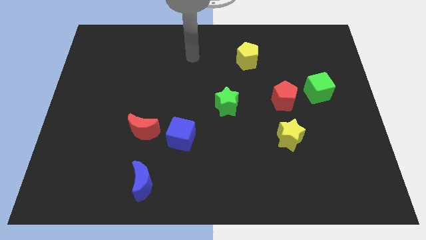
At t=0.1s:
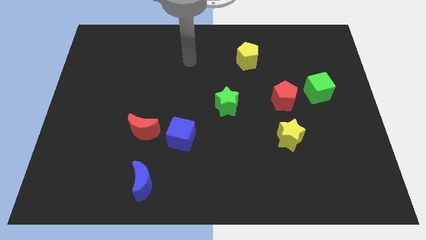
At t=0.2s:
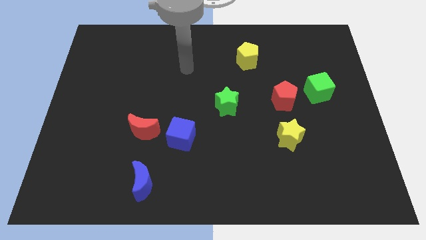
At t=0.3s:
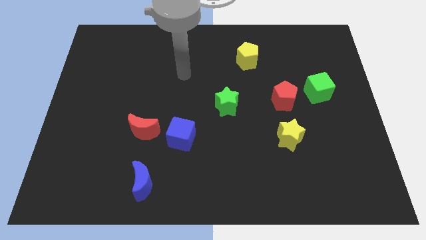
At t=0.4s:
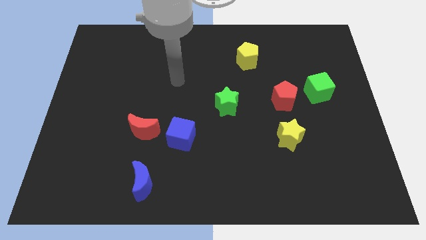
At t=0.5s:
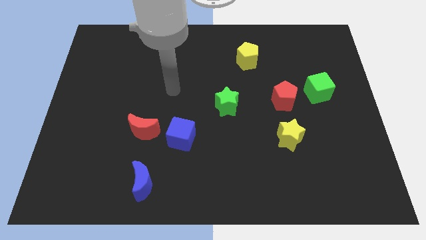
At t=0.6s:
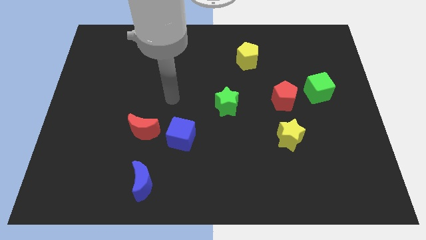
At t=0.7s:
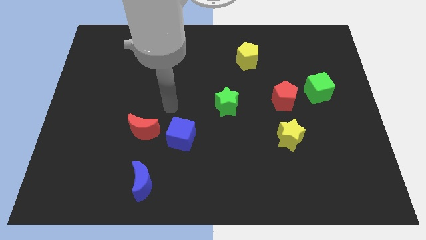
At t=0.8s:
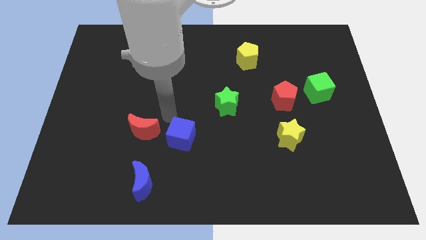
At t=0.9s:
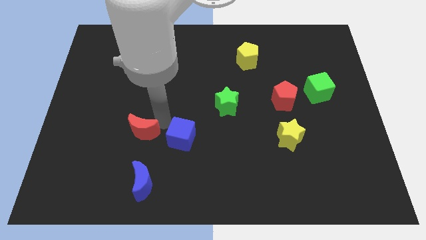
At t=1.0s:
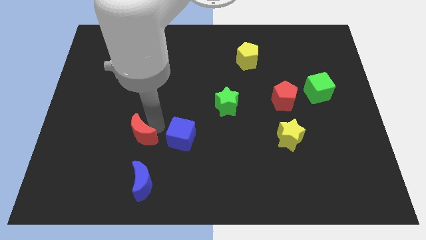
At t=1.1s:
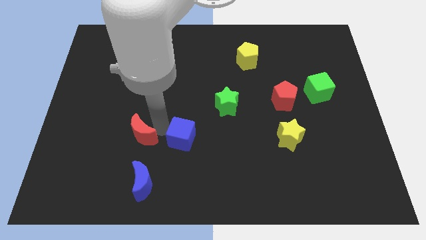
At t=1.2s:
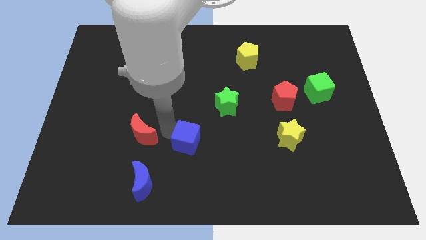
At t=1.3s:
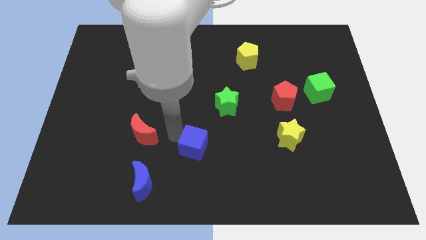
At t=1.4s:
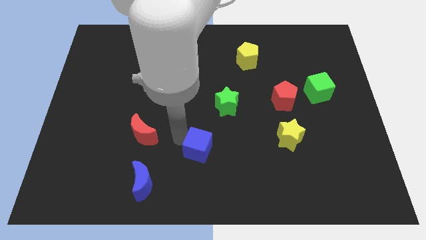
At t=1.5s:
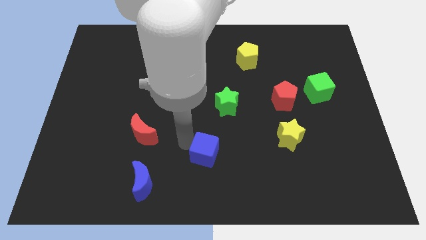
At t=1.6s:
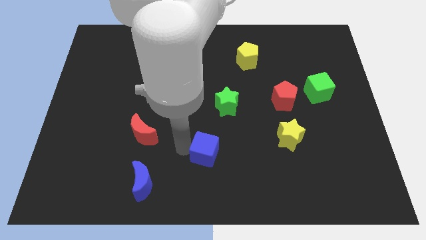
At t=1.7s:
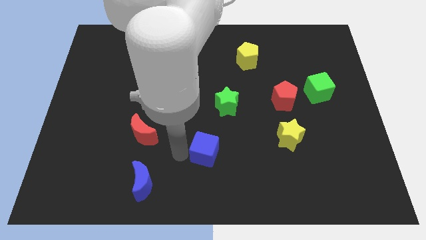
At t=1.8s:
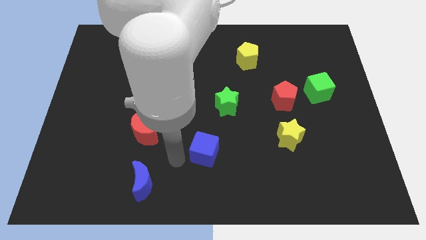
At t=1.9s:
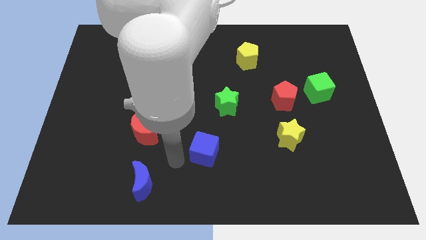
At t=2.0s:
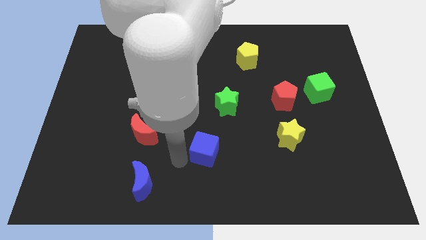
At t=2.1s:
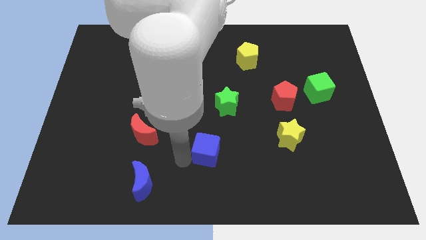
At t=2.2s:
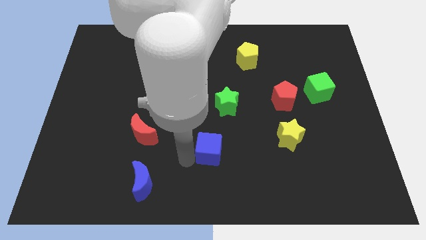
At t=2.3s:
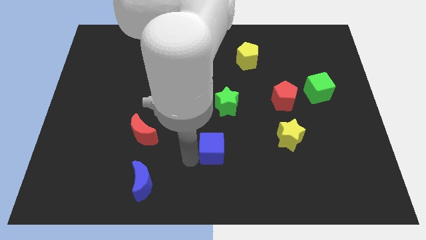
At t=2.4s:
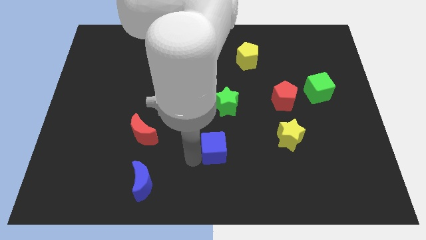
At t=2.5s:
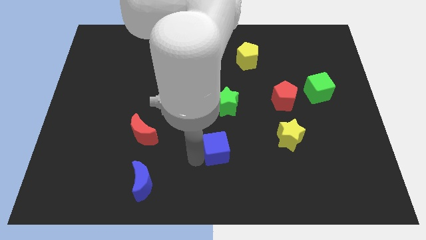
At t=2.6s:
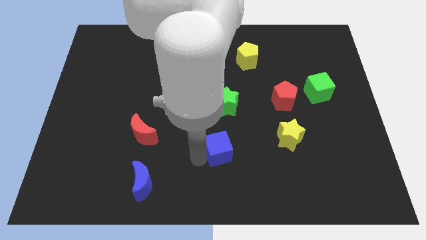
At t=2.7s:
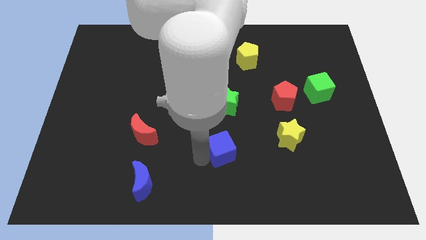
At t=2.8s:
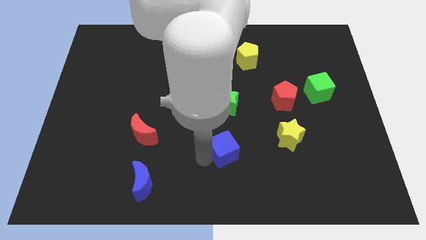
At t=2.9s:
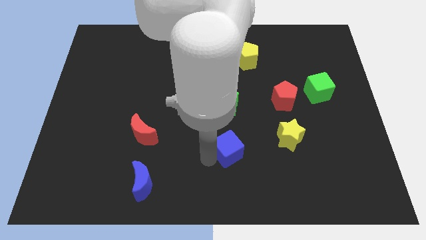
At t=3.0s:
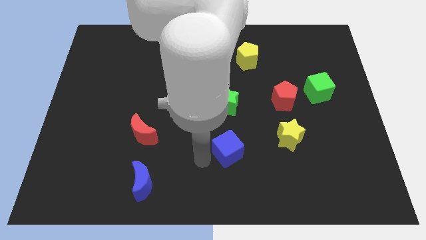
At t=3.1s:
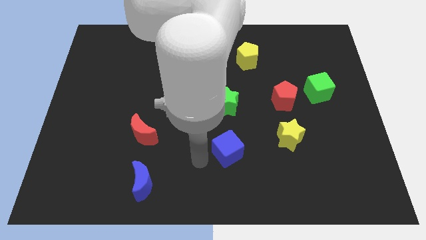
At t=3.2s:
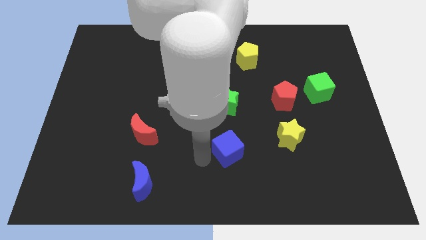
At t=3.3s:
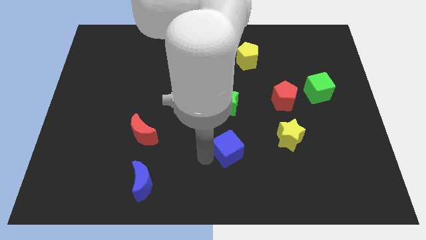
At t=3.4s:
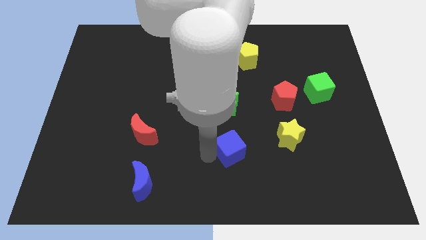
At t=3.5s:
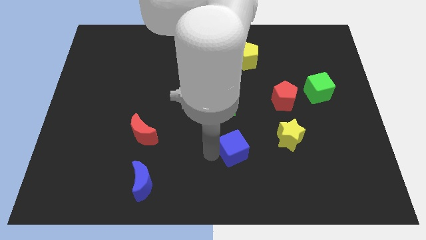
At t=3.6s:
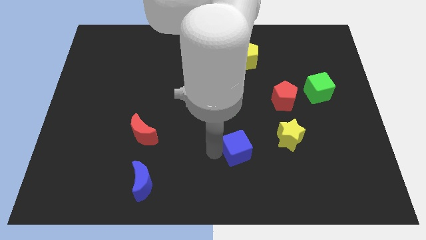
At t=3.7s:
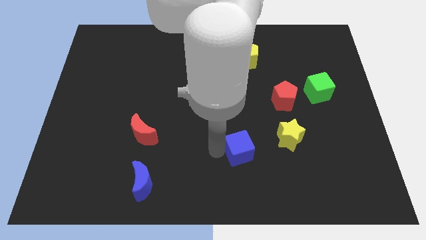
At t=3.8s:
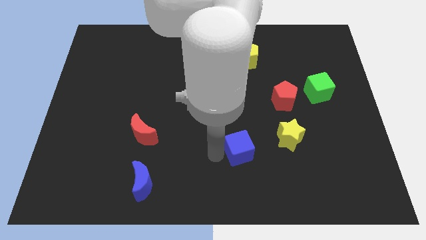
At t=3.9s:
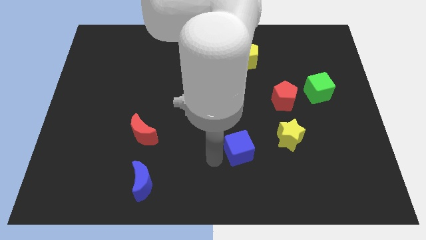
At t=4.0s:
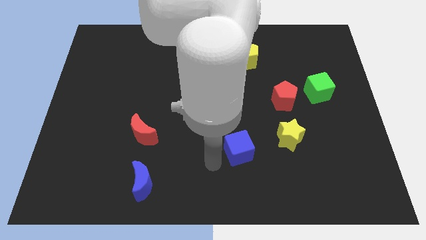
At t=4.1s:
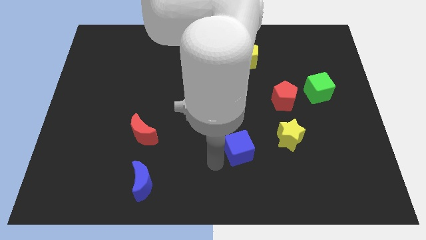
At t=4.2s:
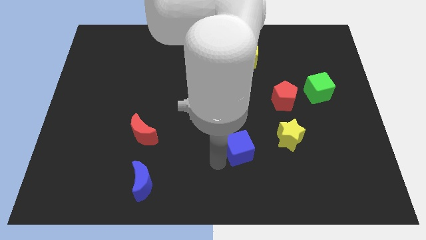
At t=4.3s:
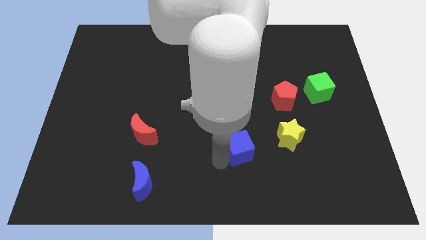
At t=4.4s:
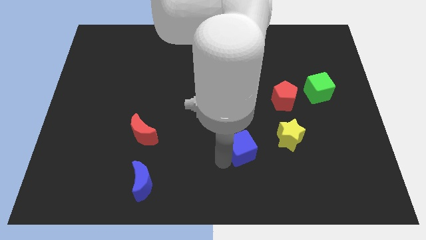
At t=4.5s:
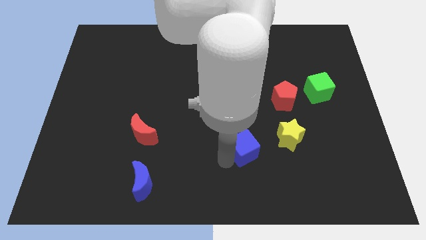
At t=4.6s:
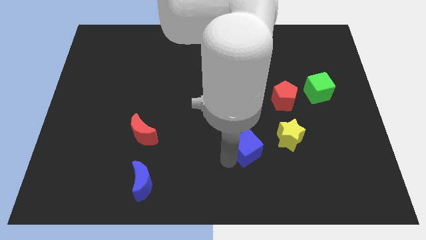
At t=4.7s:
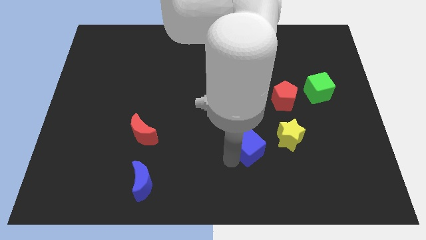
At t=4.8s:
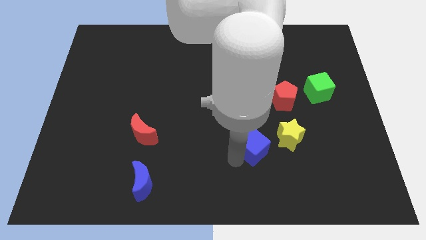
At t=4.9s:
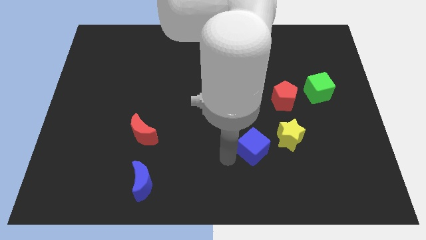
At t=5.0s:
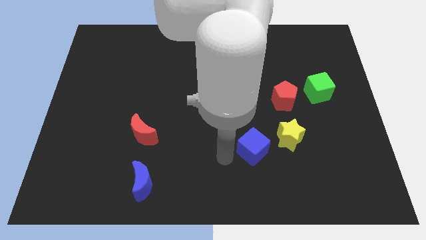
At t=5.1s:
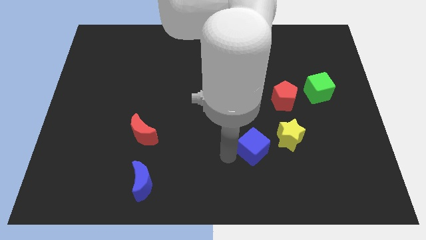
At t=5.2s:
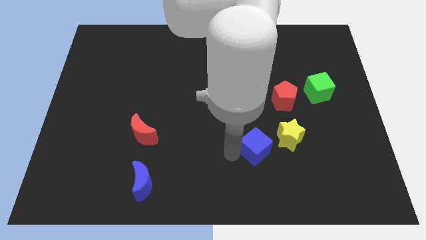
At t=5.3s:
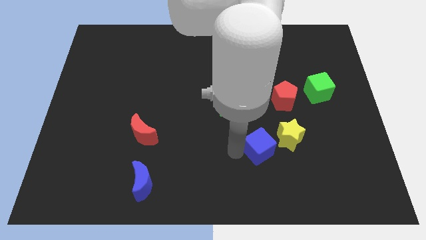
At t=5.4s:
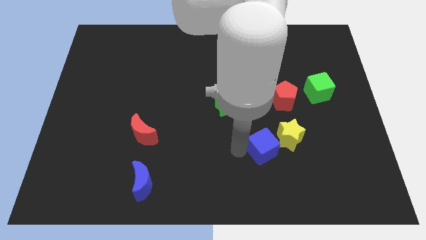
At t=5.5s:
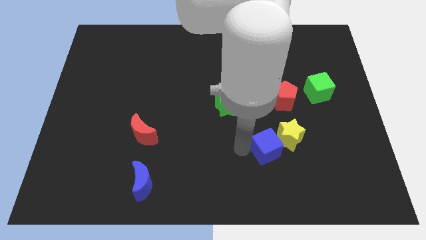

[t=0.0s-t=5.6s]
put the blue cube next to the yellow star

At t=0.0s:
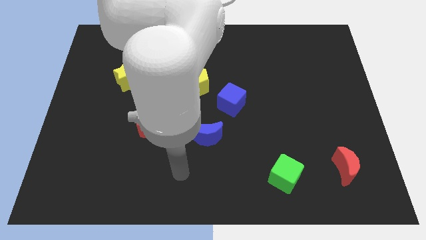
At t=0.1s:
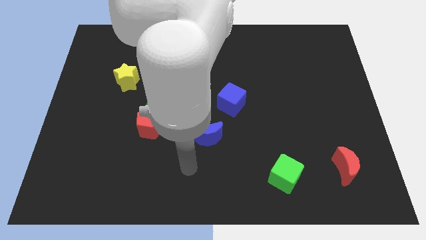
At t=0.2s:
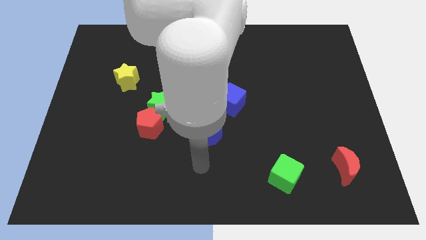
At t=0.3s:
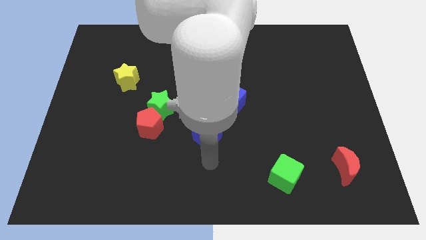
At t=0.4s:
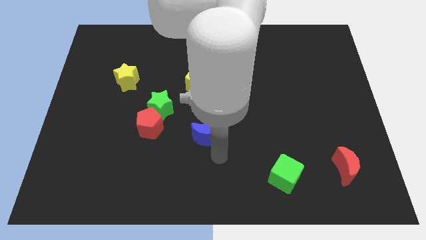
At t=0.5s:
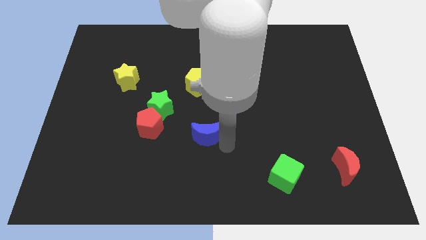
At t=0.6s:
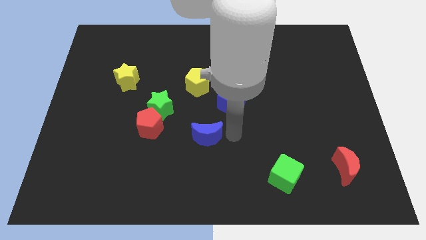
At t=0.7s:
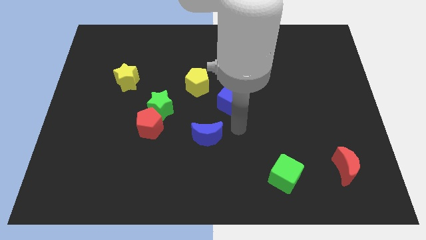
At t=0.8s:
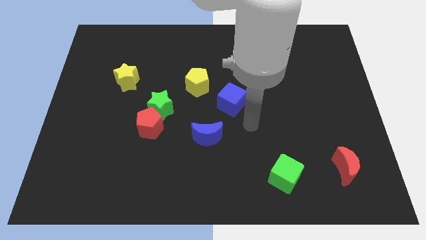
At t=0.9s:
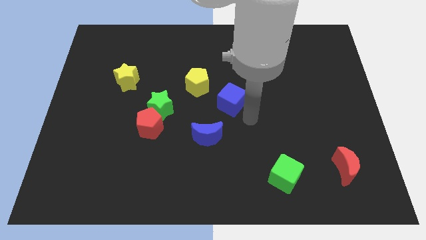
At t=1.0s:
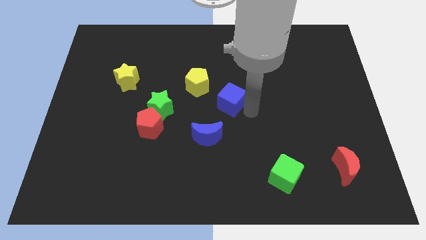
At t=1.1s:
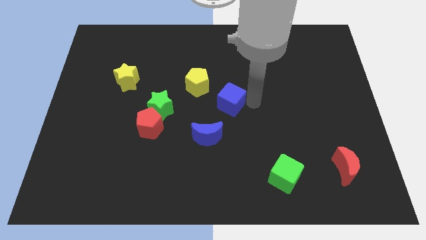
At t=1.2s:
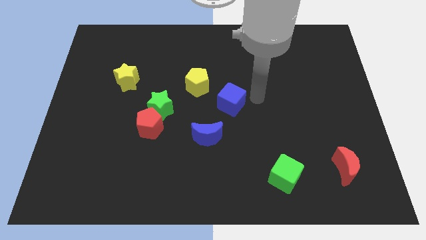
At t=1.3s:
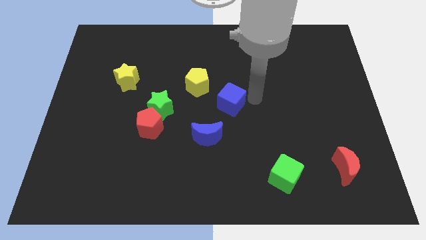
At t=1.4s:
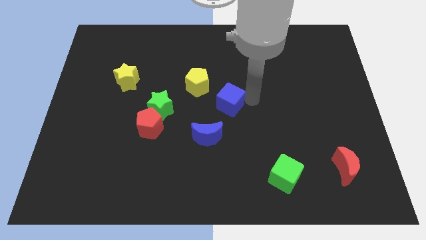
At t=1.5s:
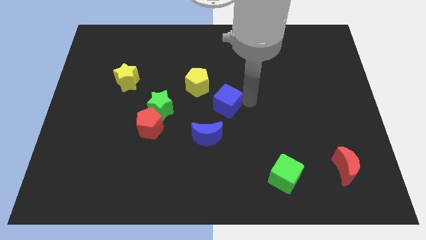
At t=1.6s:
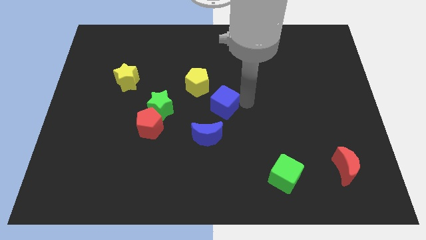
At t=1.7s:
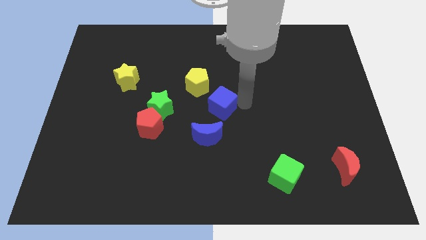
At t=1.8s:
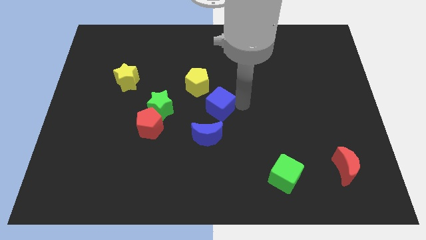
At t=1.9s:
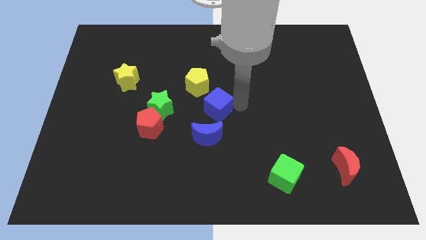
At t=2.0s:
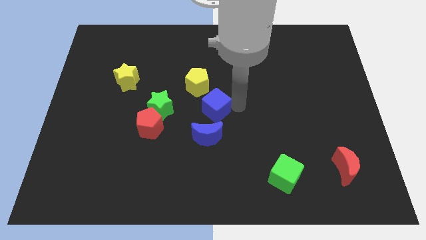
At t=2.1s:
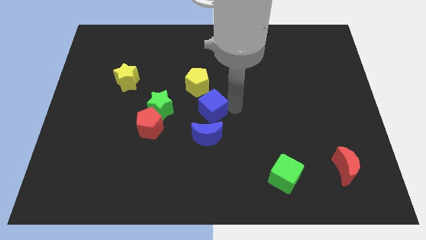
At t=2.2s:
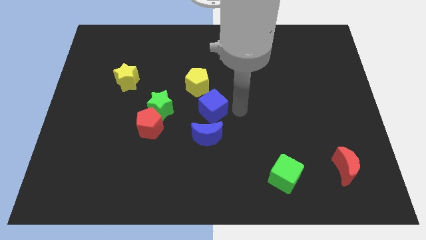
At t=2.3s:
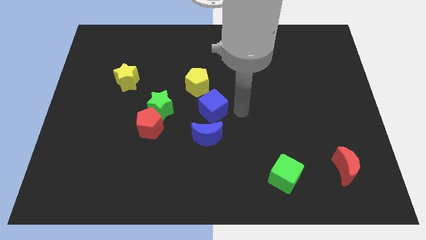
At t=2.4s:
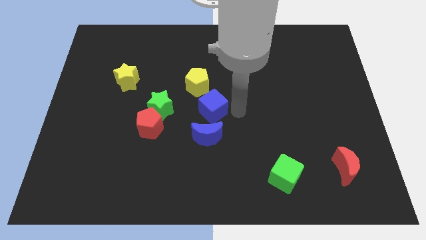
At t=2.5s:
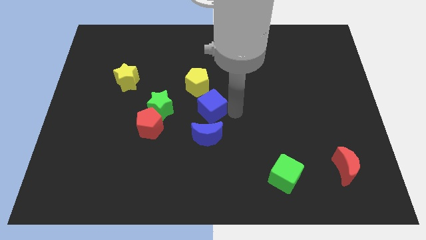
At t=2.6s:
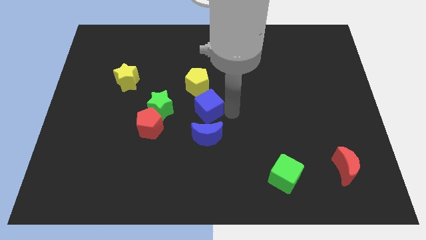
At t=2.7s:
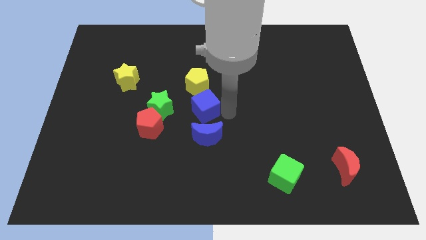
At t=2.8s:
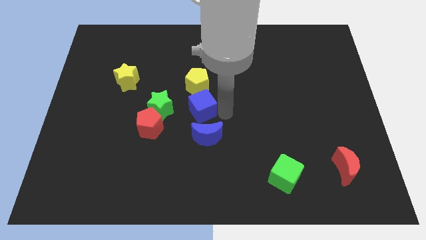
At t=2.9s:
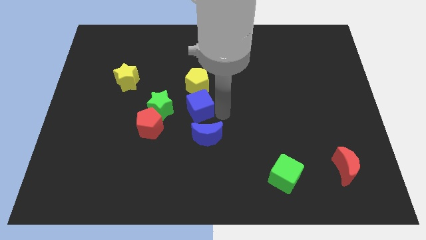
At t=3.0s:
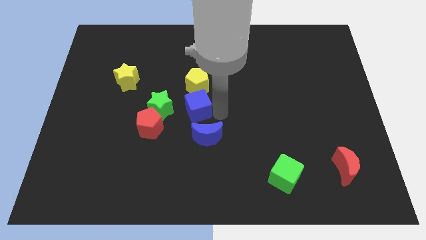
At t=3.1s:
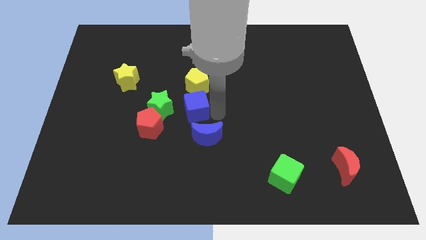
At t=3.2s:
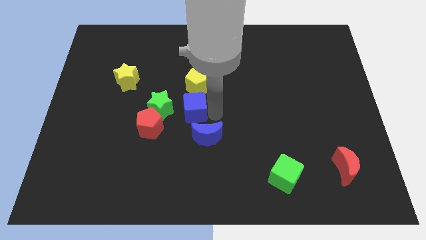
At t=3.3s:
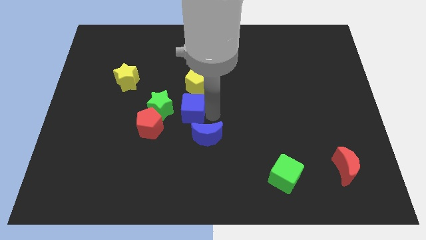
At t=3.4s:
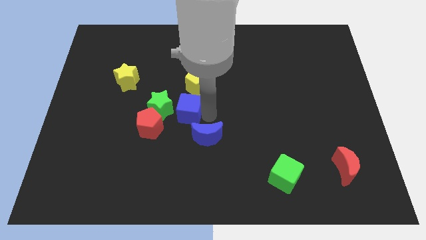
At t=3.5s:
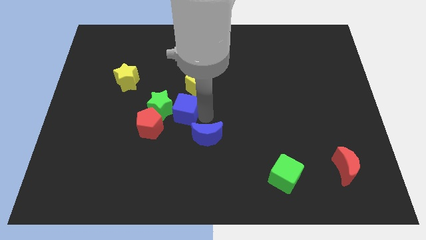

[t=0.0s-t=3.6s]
push the blue cube to the green star
